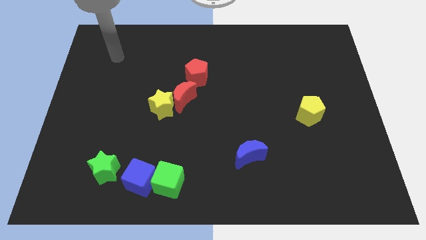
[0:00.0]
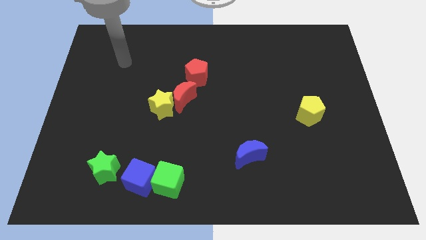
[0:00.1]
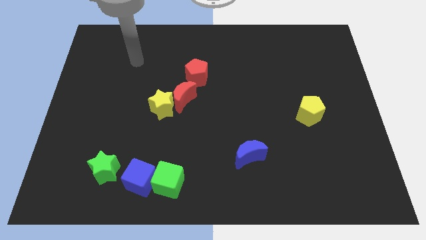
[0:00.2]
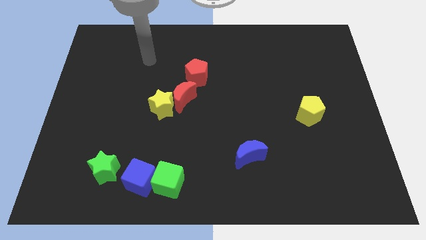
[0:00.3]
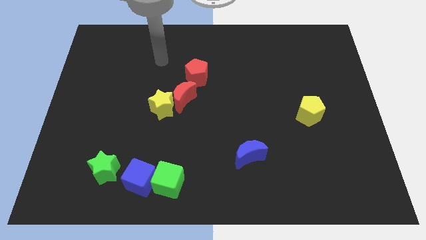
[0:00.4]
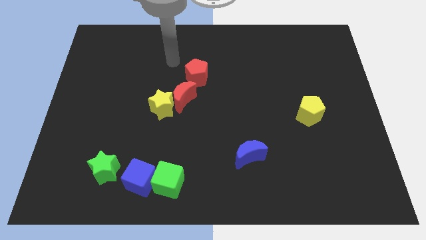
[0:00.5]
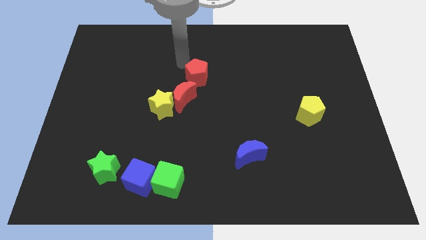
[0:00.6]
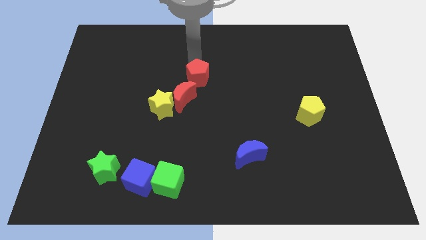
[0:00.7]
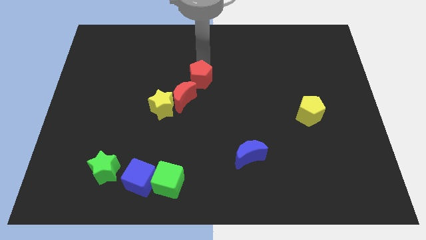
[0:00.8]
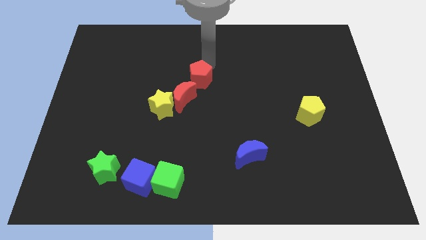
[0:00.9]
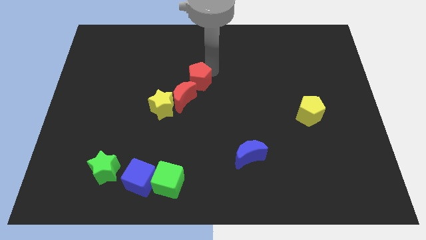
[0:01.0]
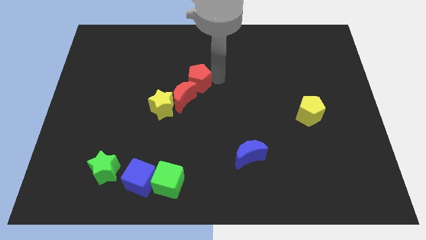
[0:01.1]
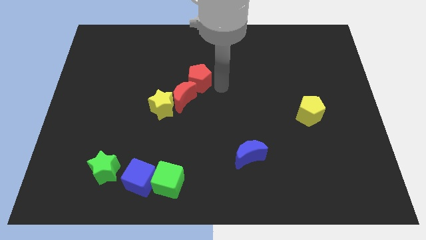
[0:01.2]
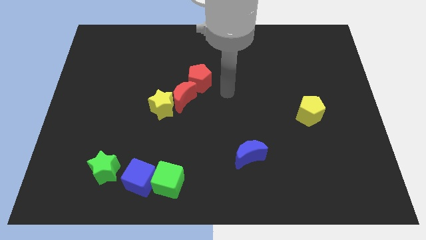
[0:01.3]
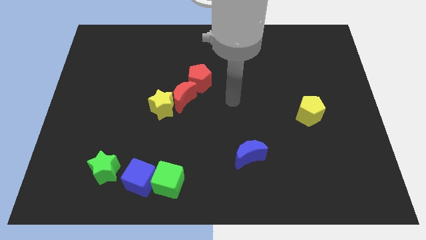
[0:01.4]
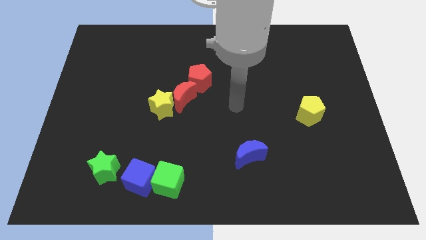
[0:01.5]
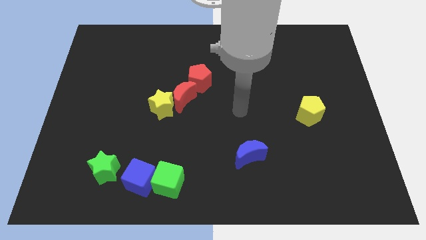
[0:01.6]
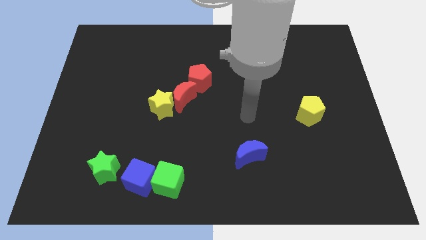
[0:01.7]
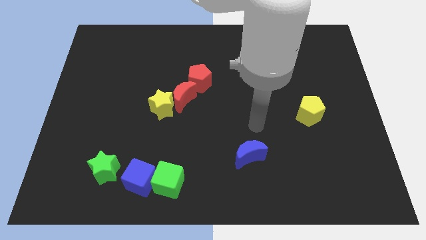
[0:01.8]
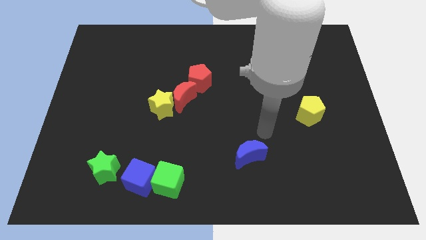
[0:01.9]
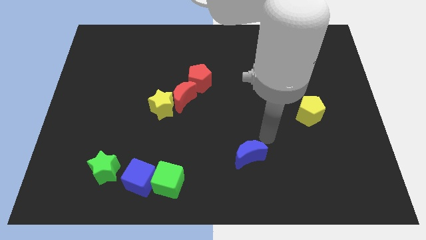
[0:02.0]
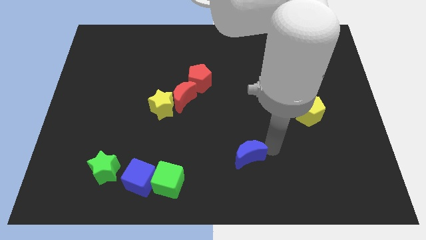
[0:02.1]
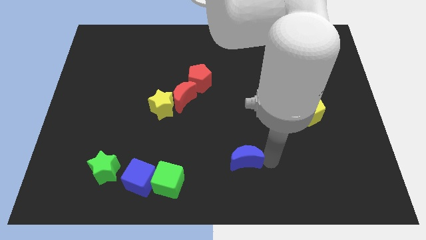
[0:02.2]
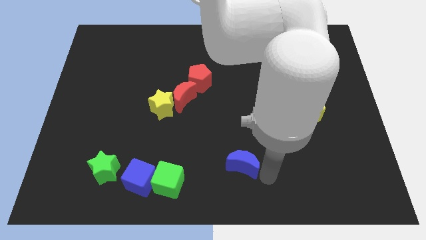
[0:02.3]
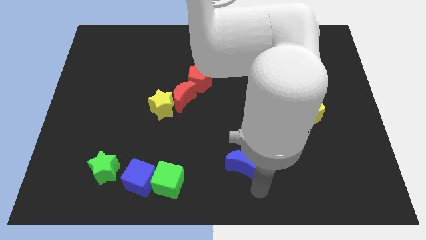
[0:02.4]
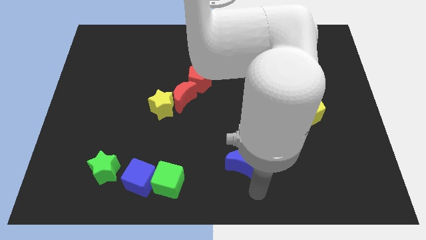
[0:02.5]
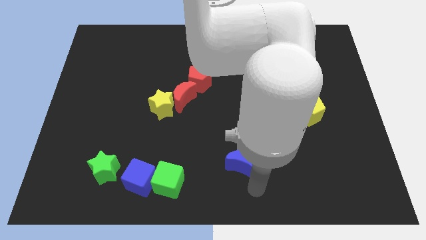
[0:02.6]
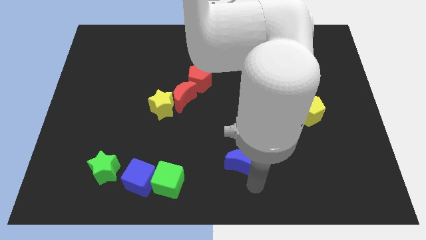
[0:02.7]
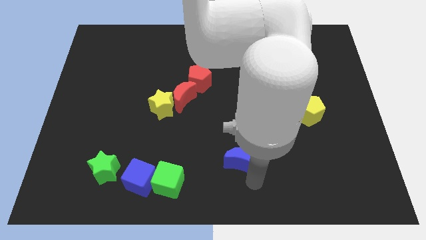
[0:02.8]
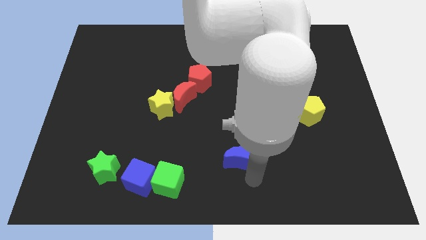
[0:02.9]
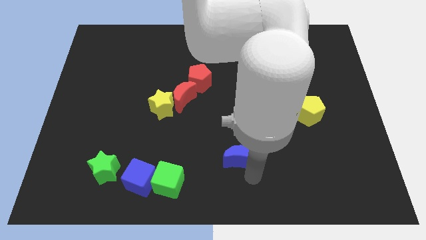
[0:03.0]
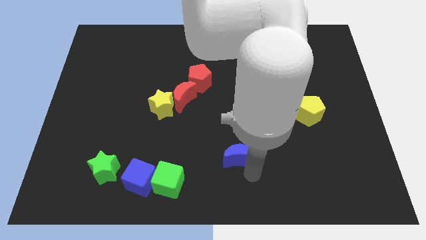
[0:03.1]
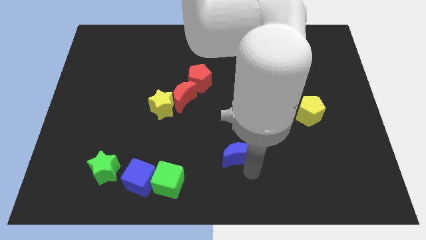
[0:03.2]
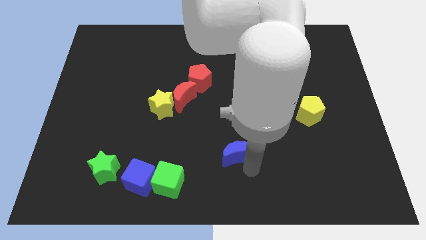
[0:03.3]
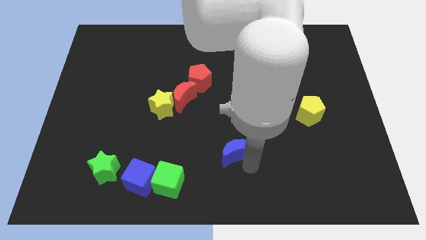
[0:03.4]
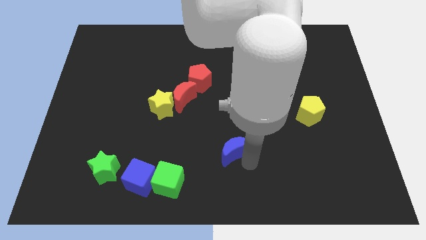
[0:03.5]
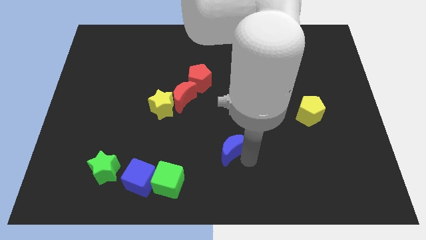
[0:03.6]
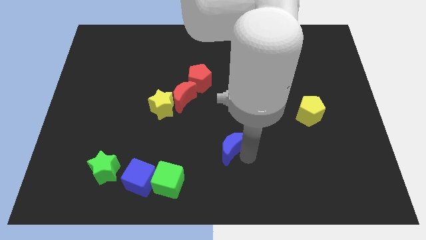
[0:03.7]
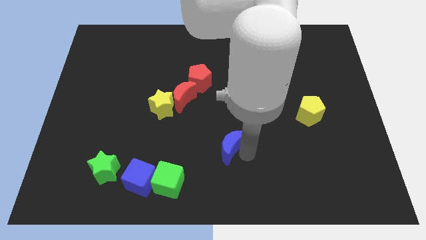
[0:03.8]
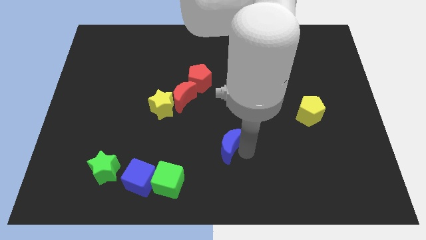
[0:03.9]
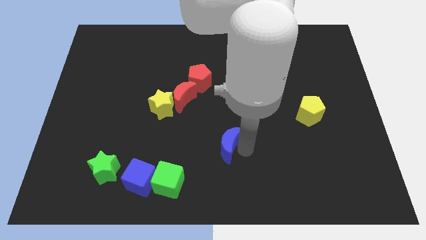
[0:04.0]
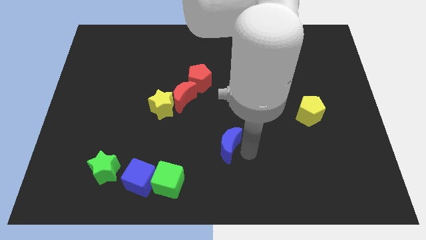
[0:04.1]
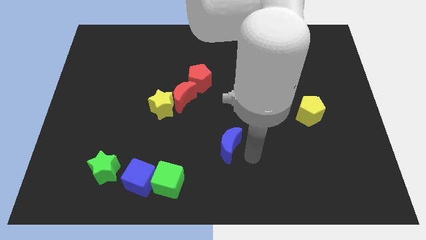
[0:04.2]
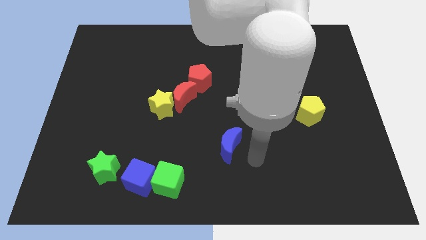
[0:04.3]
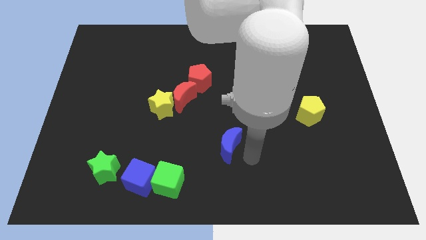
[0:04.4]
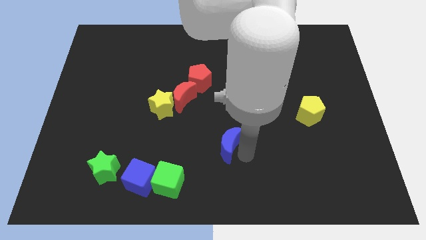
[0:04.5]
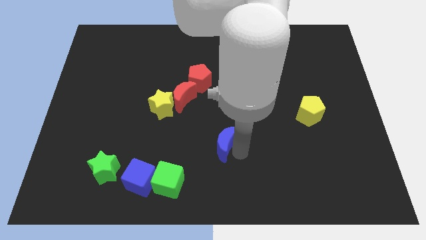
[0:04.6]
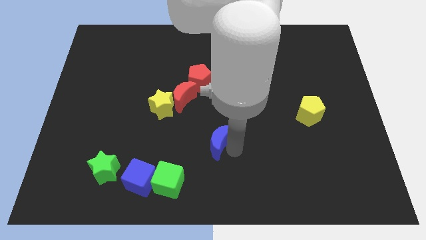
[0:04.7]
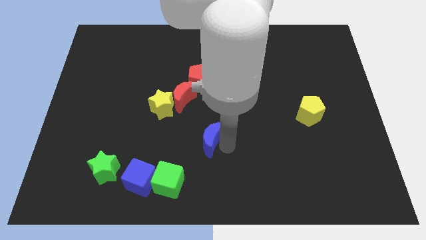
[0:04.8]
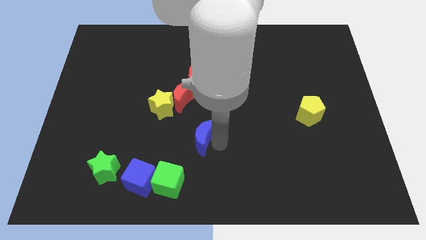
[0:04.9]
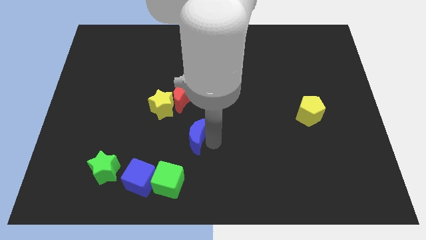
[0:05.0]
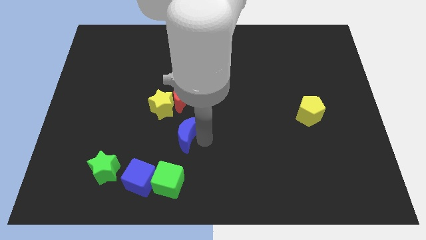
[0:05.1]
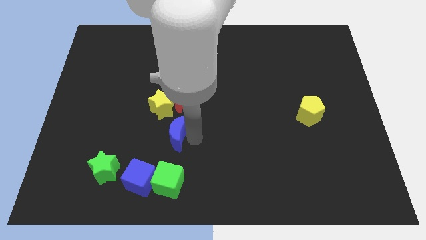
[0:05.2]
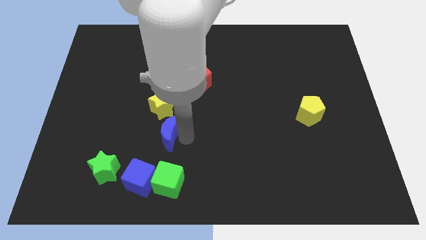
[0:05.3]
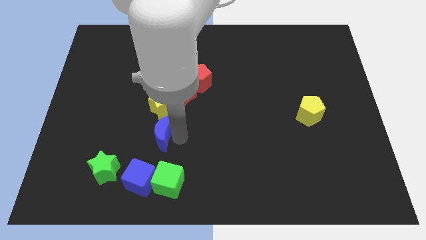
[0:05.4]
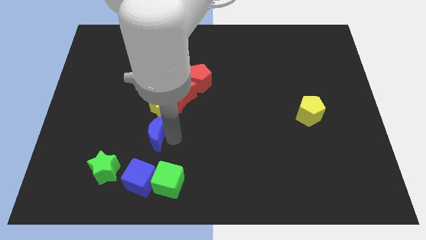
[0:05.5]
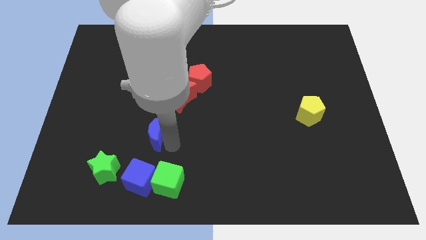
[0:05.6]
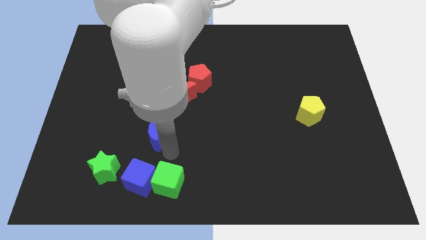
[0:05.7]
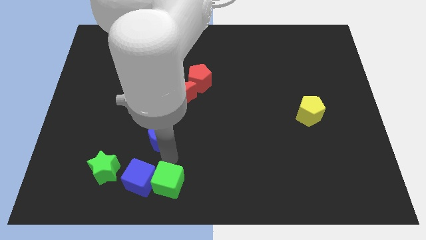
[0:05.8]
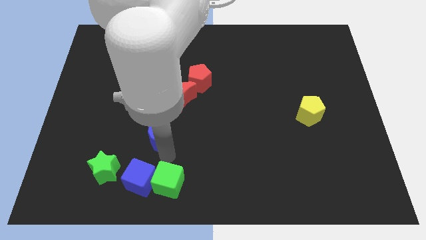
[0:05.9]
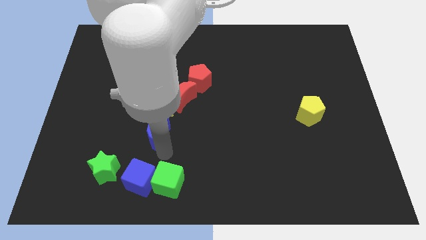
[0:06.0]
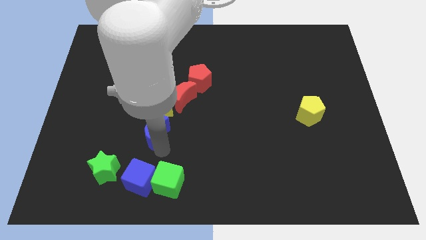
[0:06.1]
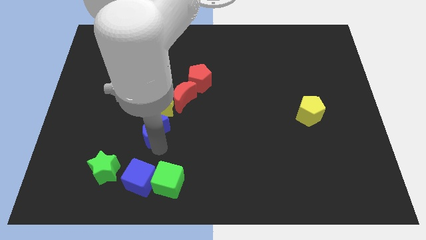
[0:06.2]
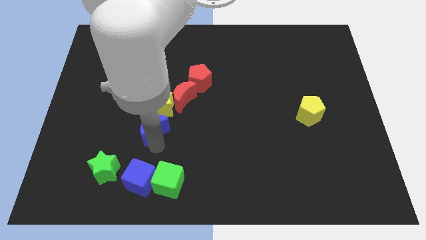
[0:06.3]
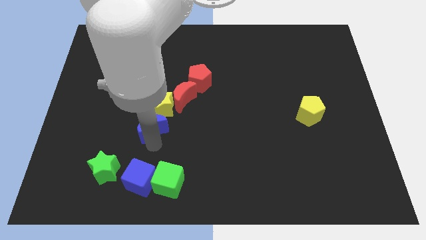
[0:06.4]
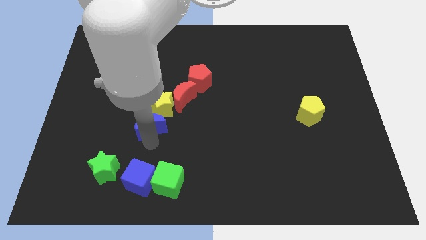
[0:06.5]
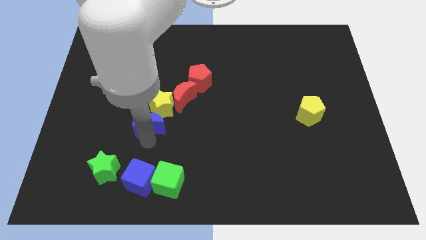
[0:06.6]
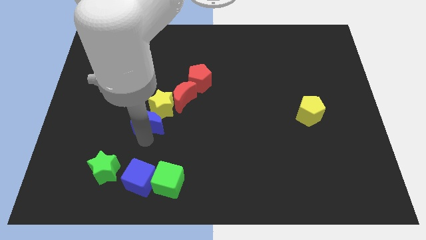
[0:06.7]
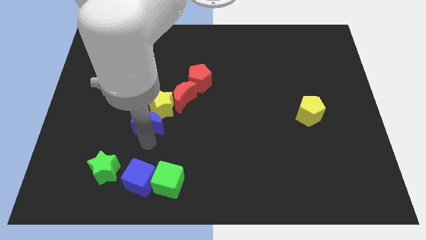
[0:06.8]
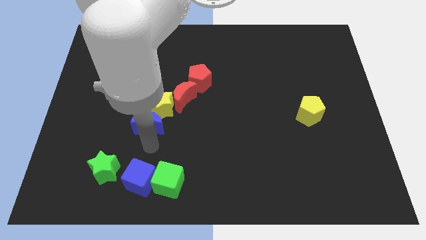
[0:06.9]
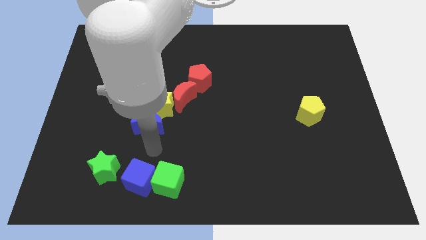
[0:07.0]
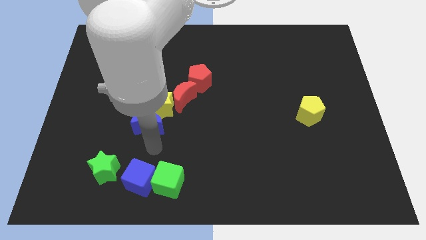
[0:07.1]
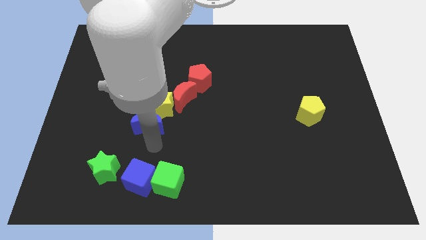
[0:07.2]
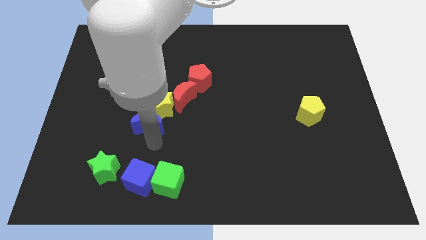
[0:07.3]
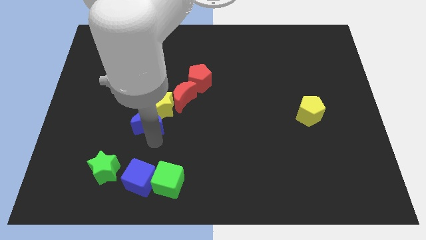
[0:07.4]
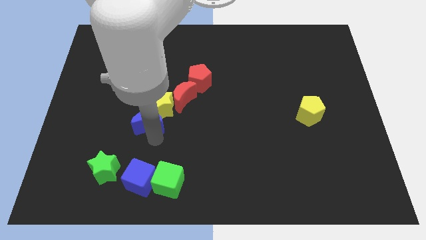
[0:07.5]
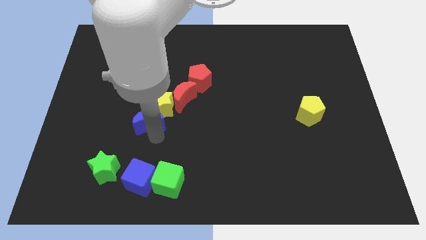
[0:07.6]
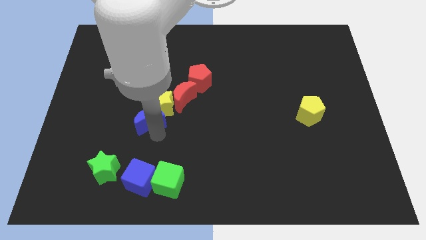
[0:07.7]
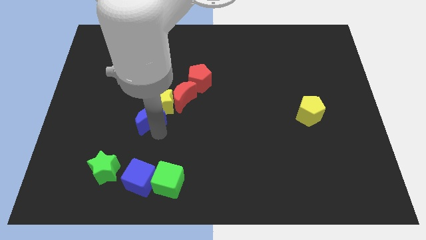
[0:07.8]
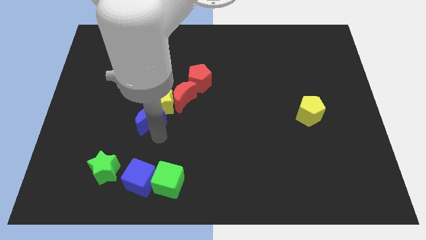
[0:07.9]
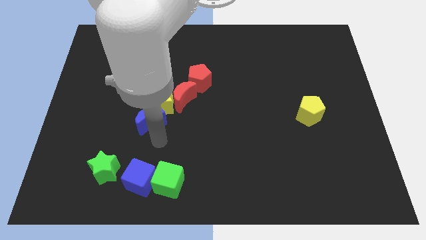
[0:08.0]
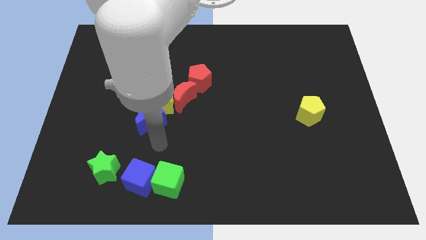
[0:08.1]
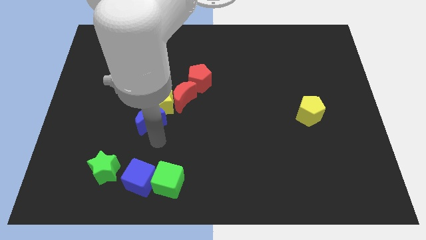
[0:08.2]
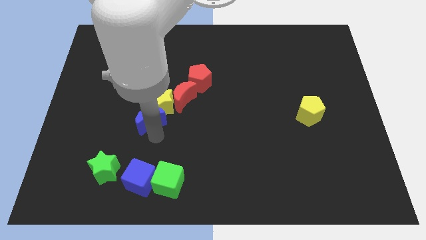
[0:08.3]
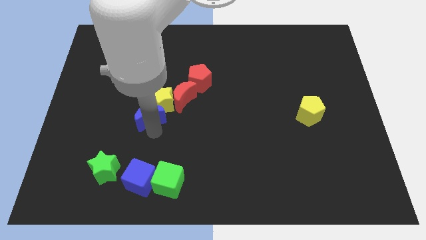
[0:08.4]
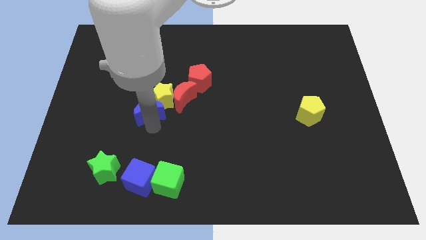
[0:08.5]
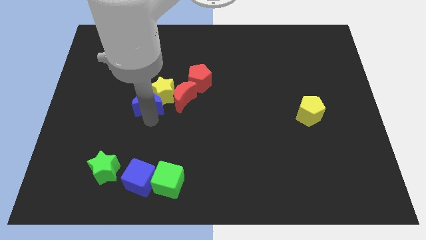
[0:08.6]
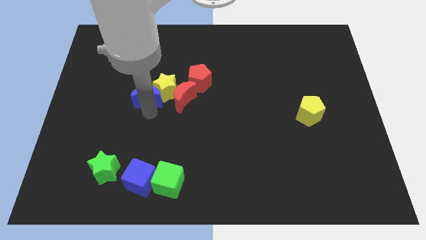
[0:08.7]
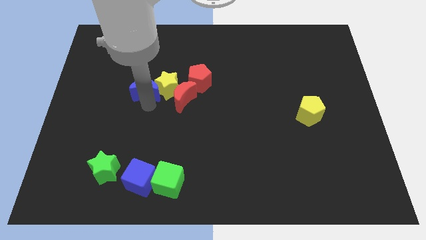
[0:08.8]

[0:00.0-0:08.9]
move the blue moon to the top left side of the yellow star
